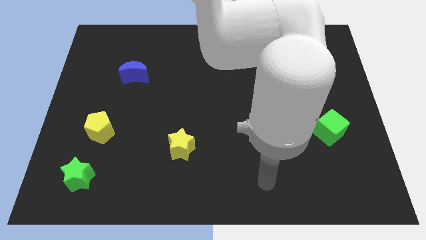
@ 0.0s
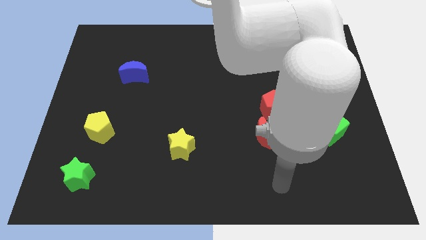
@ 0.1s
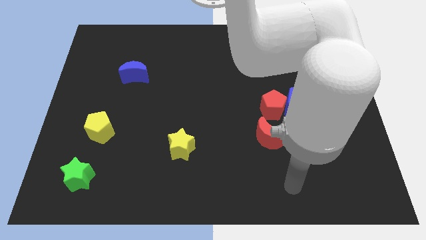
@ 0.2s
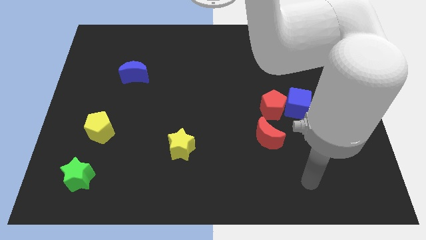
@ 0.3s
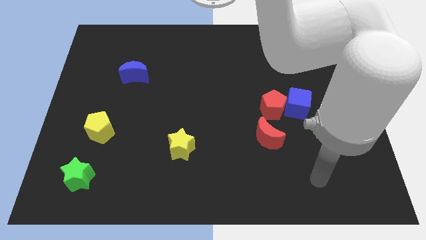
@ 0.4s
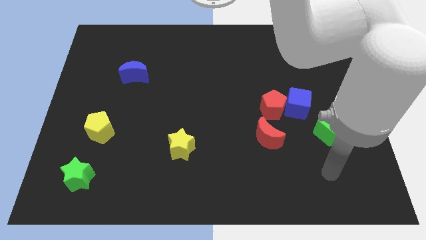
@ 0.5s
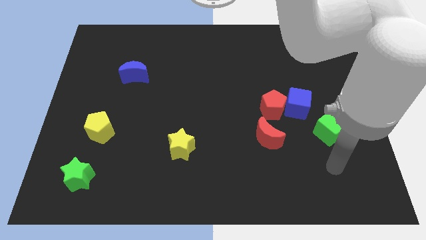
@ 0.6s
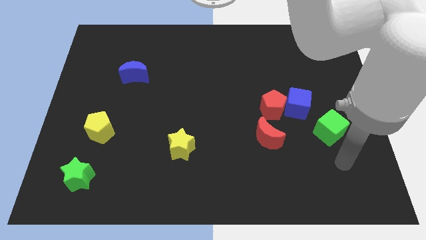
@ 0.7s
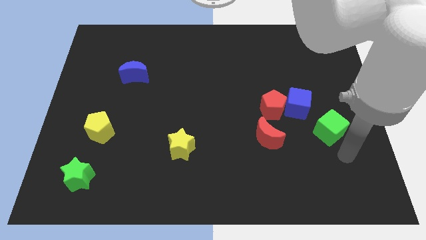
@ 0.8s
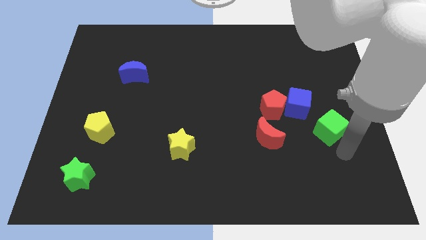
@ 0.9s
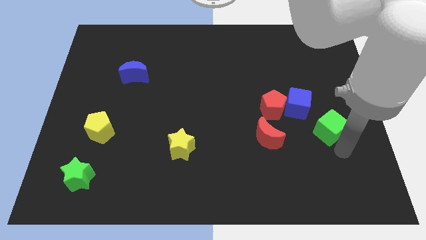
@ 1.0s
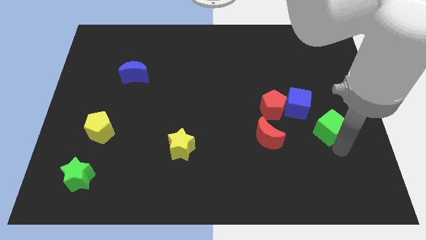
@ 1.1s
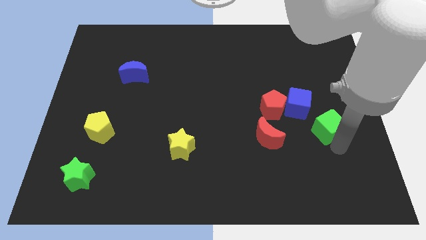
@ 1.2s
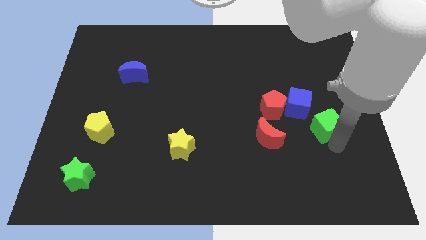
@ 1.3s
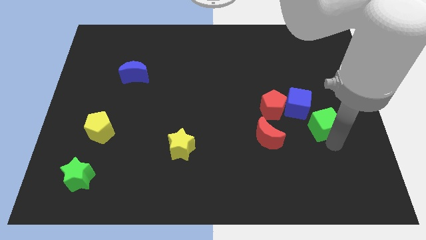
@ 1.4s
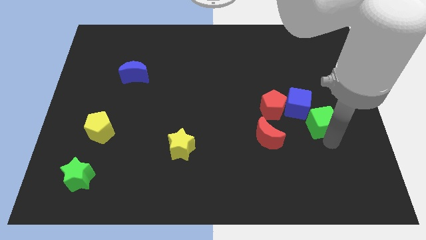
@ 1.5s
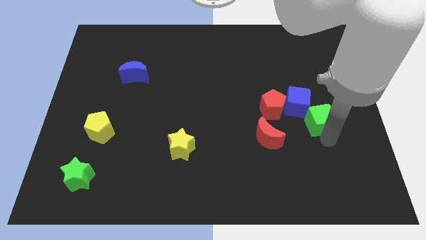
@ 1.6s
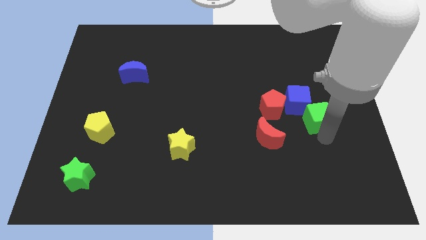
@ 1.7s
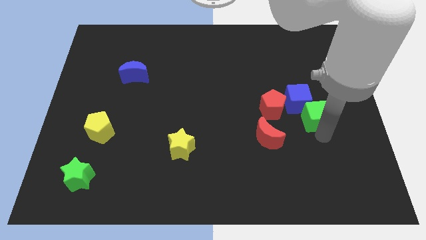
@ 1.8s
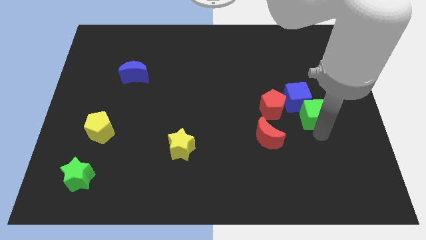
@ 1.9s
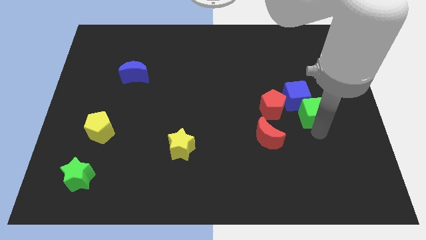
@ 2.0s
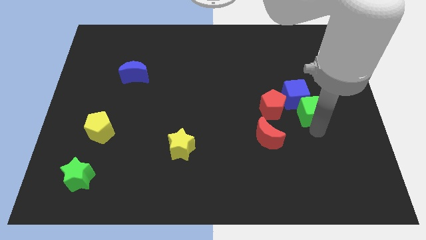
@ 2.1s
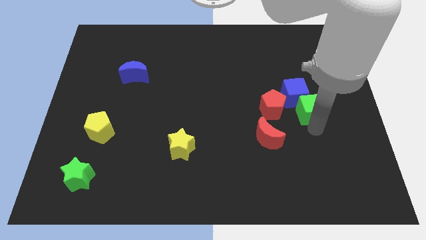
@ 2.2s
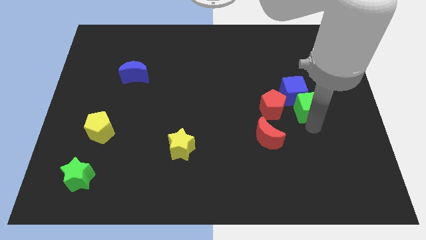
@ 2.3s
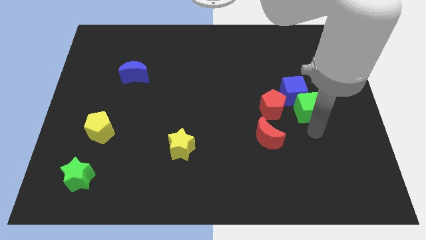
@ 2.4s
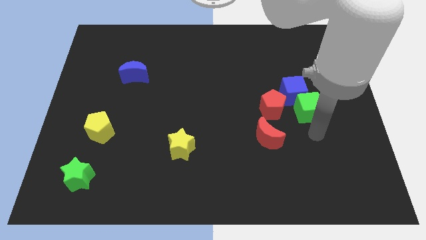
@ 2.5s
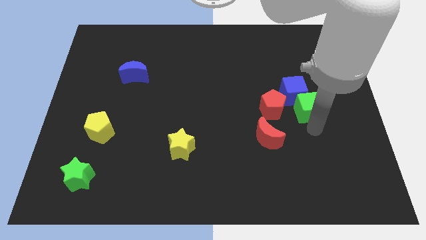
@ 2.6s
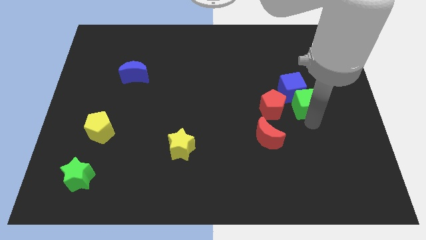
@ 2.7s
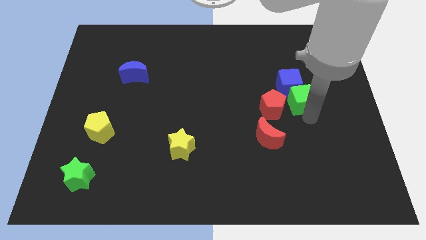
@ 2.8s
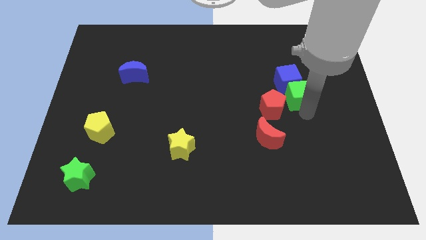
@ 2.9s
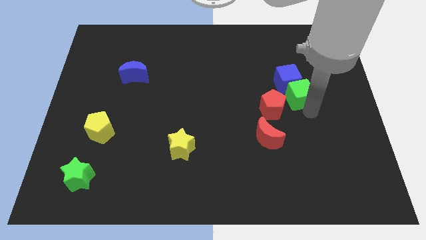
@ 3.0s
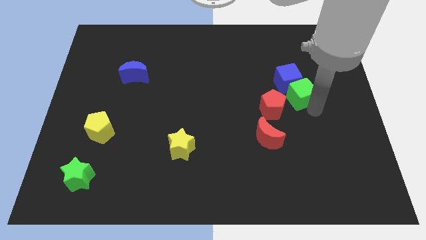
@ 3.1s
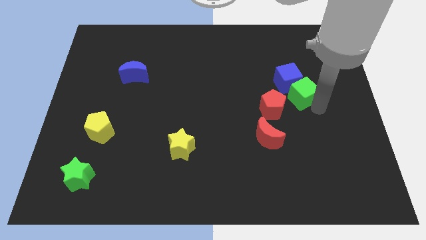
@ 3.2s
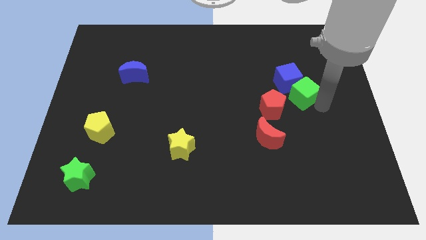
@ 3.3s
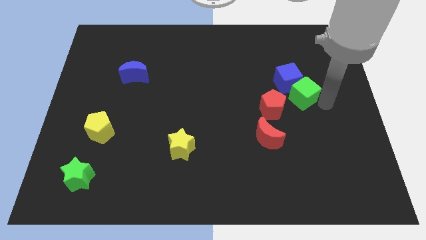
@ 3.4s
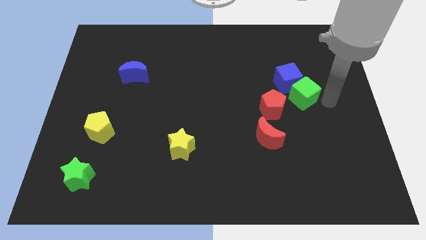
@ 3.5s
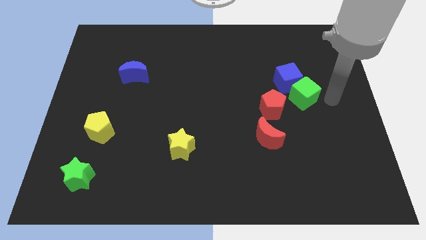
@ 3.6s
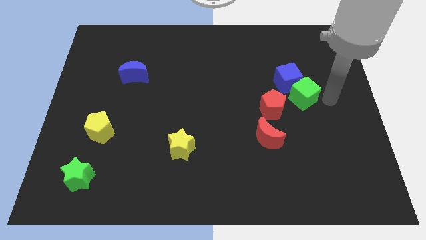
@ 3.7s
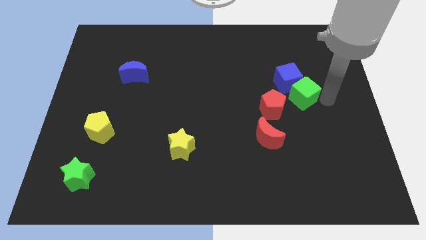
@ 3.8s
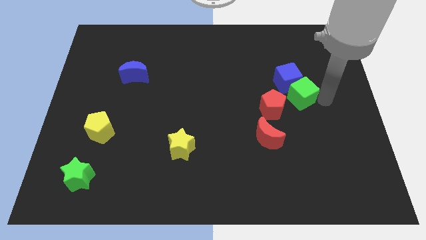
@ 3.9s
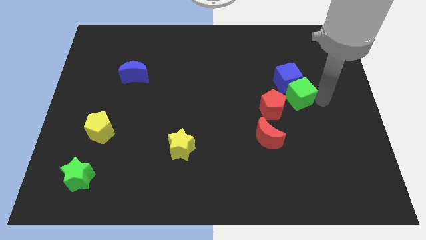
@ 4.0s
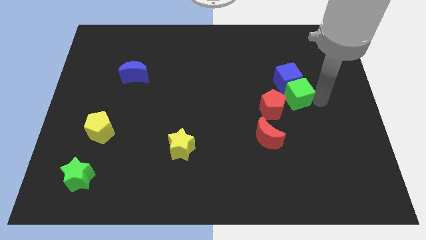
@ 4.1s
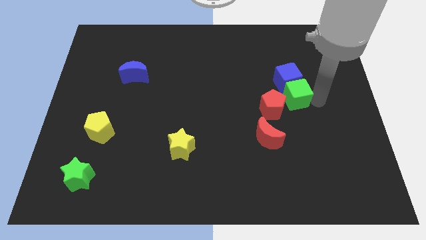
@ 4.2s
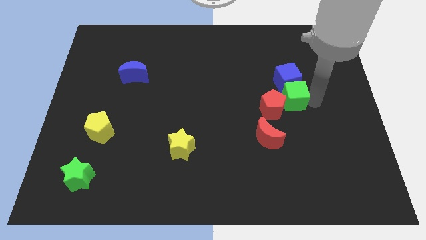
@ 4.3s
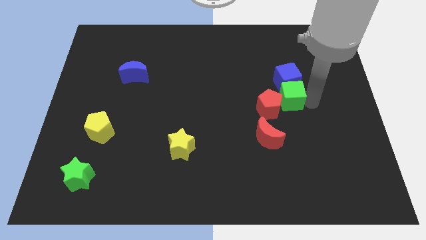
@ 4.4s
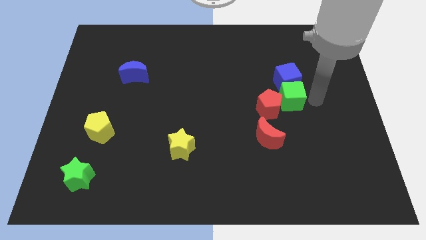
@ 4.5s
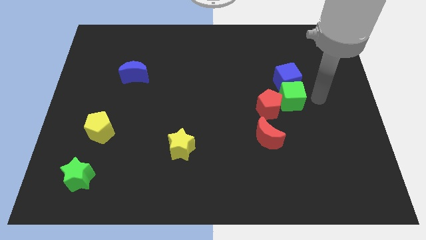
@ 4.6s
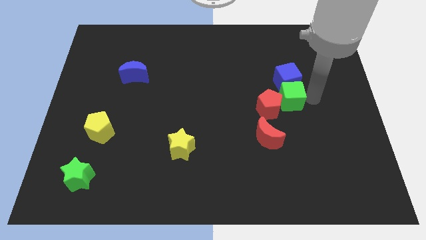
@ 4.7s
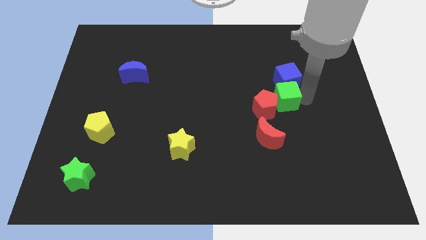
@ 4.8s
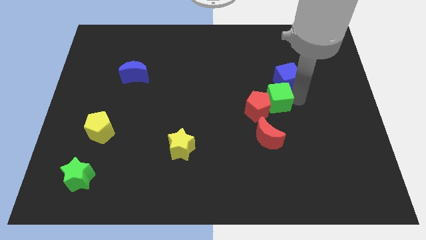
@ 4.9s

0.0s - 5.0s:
move the green cube to the top side of the red moon

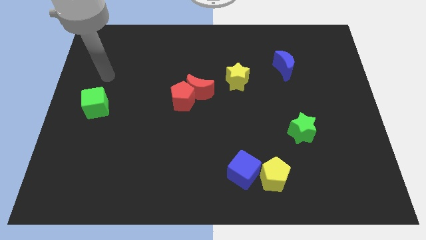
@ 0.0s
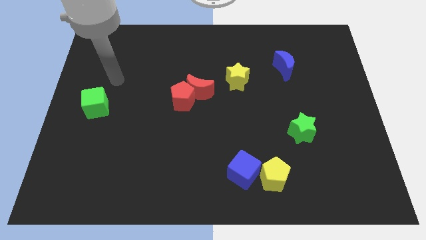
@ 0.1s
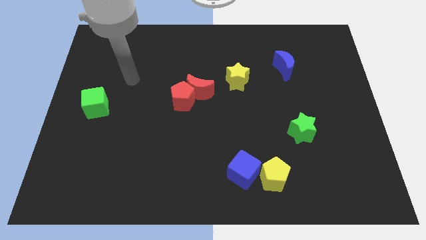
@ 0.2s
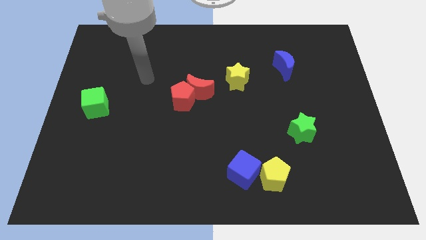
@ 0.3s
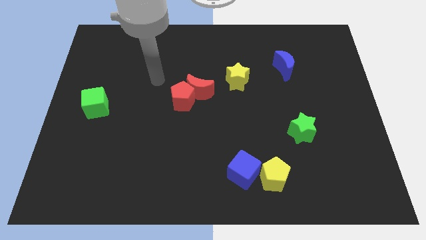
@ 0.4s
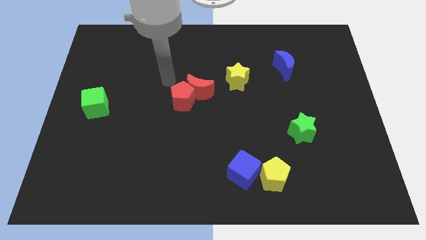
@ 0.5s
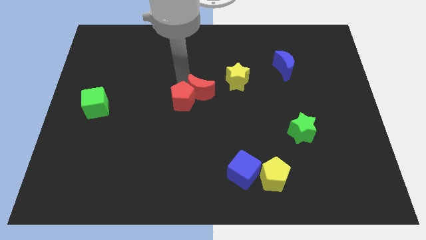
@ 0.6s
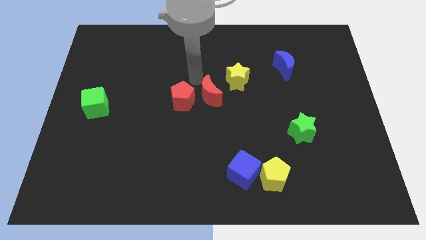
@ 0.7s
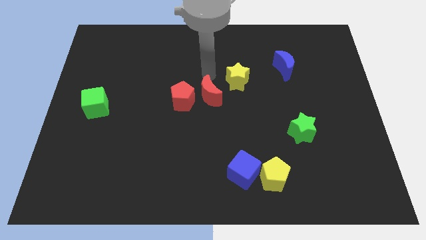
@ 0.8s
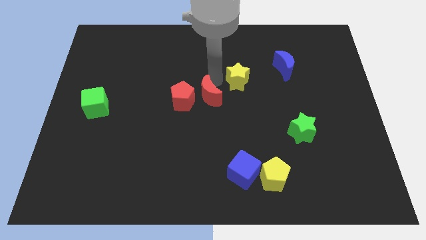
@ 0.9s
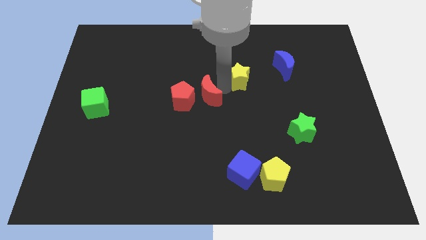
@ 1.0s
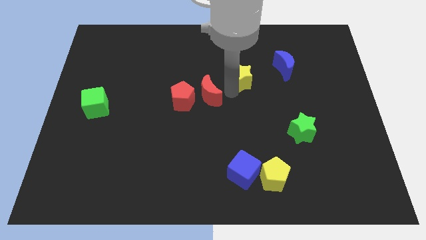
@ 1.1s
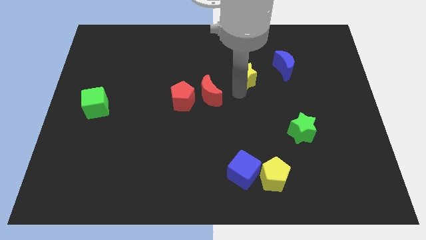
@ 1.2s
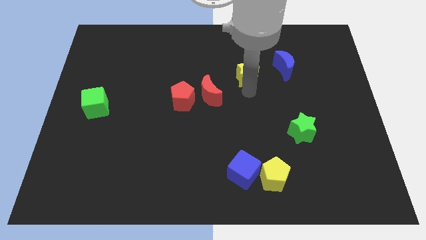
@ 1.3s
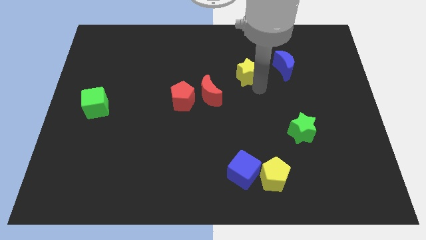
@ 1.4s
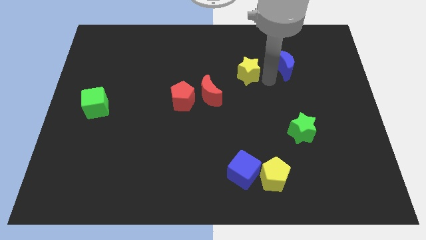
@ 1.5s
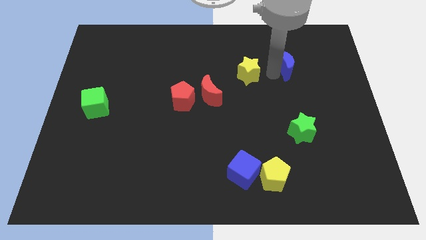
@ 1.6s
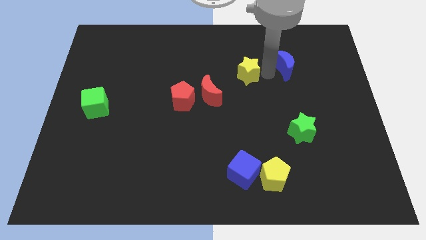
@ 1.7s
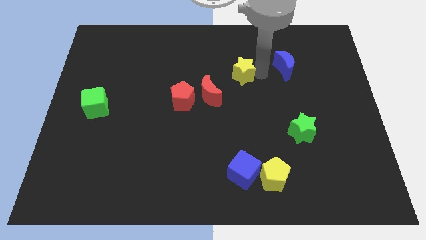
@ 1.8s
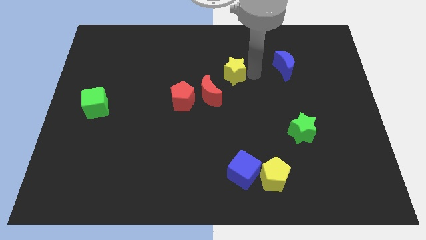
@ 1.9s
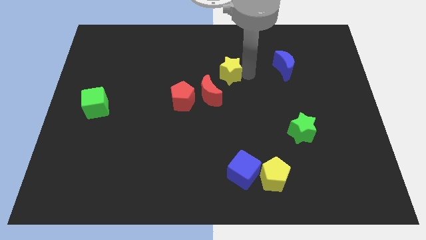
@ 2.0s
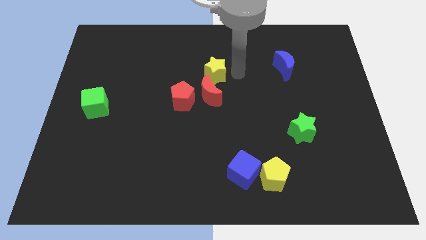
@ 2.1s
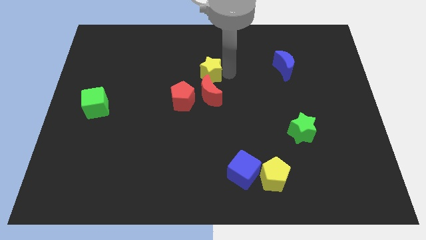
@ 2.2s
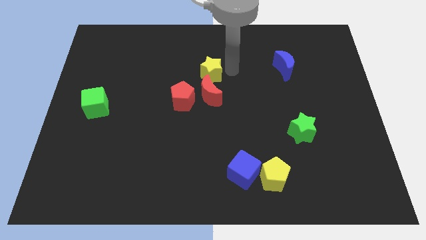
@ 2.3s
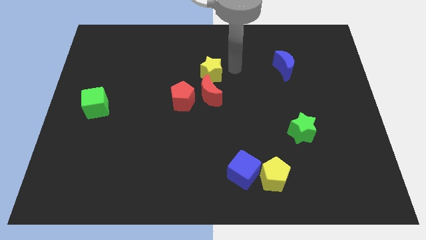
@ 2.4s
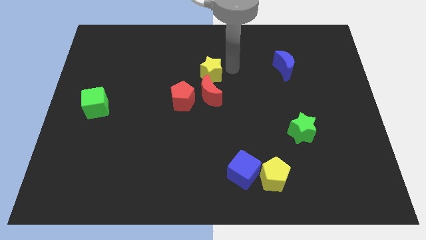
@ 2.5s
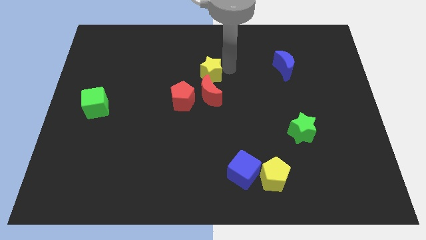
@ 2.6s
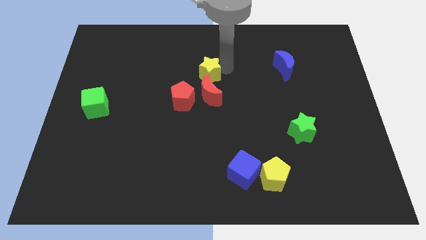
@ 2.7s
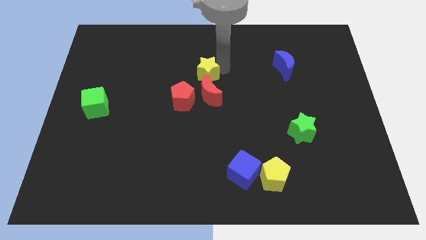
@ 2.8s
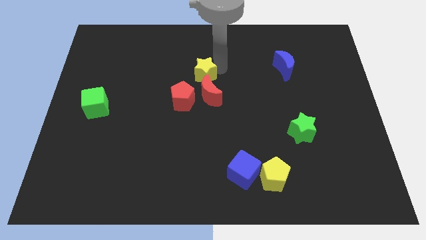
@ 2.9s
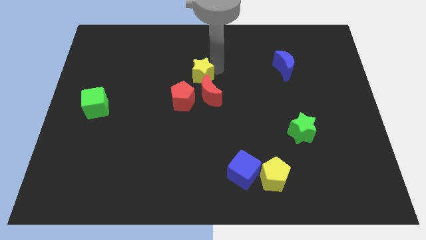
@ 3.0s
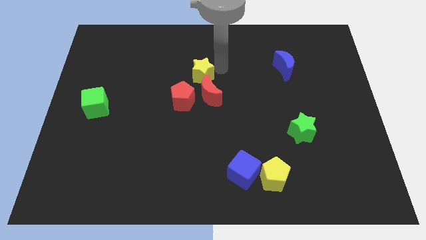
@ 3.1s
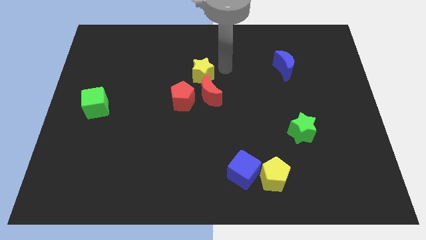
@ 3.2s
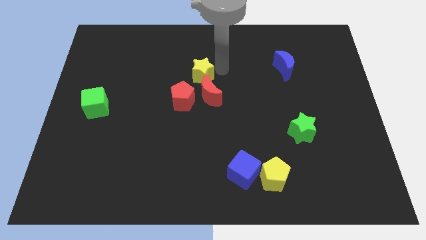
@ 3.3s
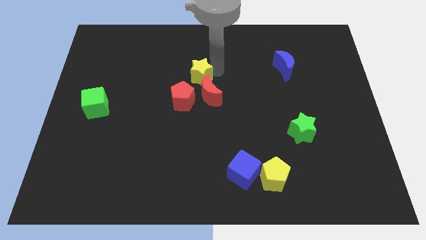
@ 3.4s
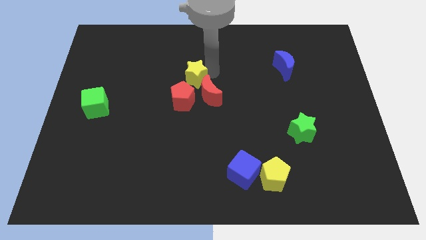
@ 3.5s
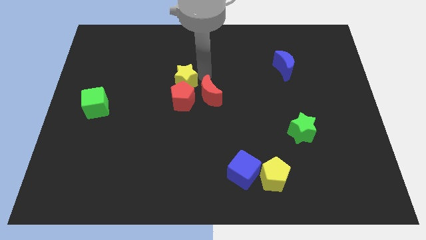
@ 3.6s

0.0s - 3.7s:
push the yellow star to the top left of the red pentagon
